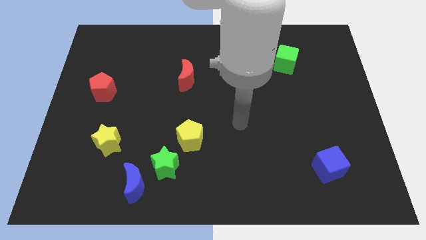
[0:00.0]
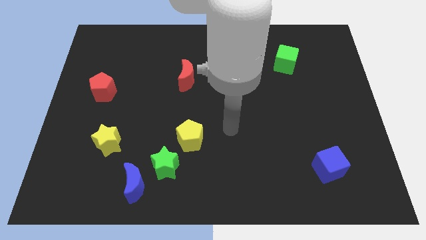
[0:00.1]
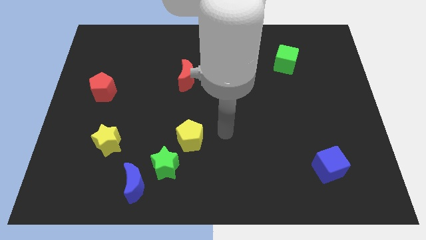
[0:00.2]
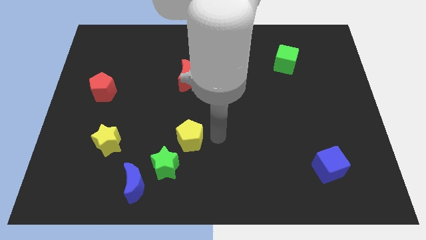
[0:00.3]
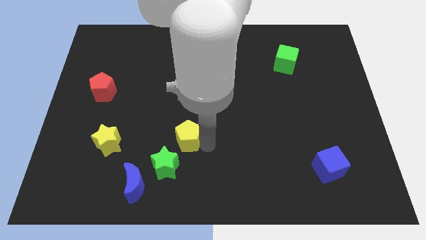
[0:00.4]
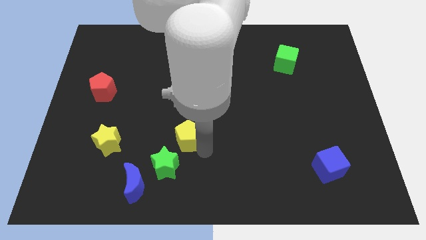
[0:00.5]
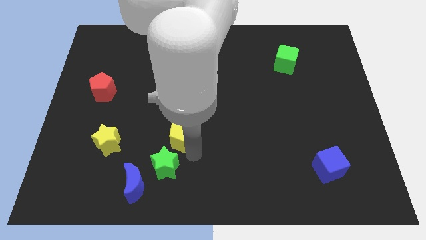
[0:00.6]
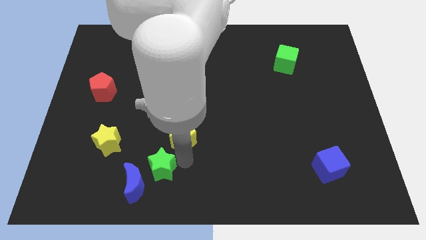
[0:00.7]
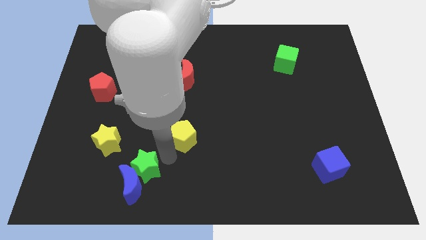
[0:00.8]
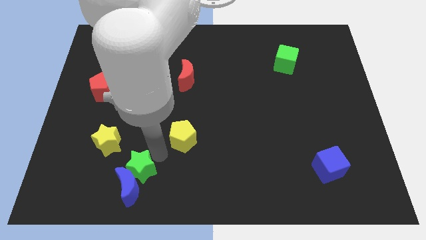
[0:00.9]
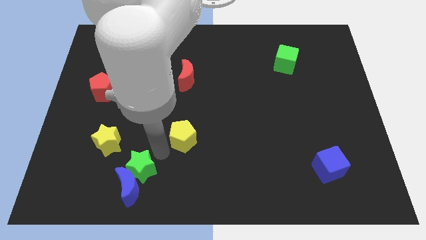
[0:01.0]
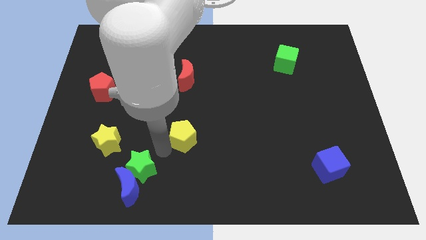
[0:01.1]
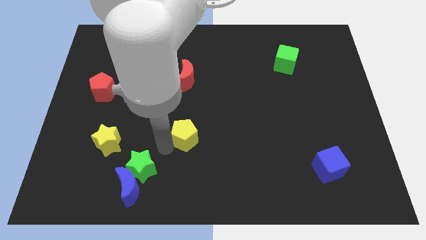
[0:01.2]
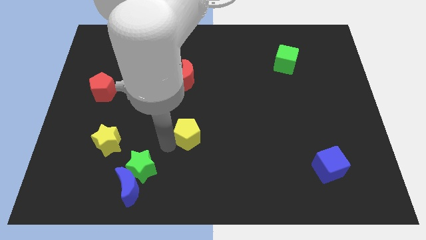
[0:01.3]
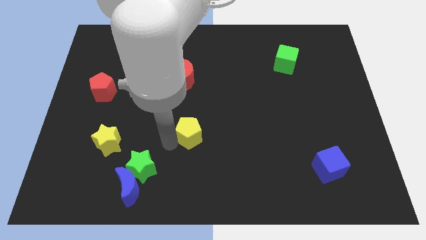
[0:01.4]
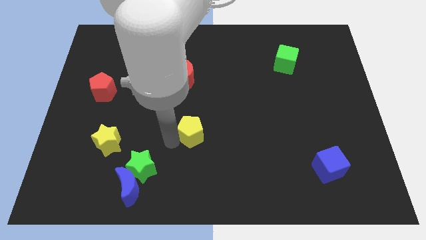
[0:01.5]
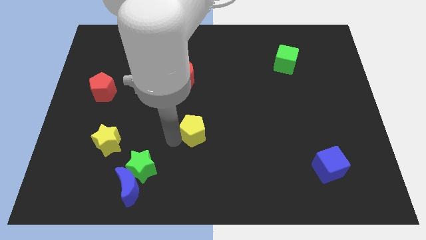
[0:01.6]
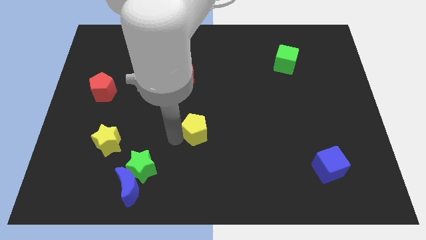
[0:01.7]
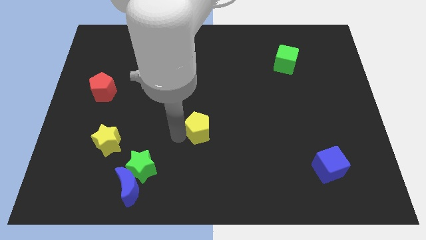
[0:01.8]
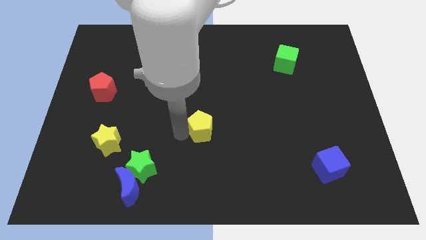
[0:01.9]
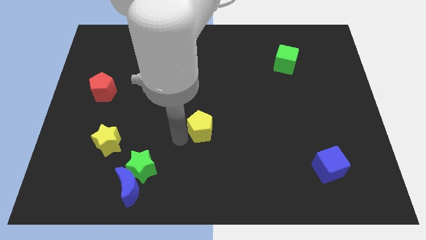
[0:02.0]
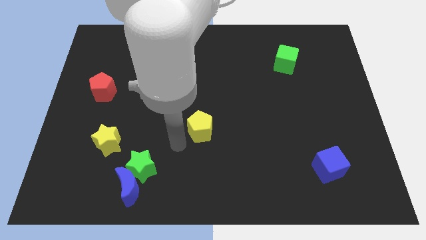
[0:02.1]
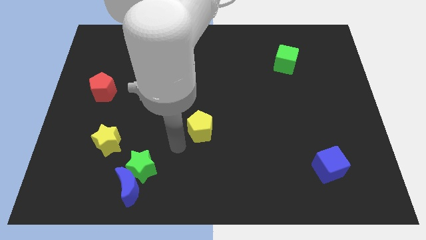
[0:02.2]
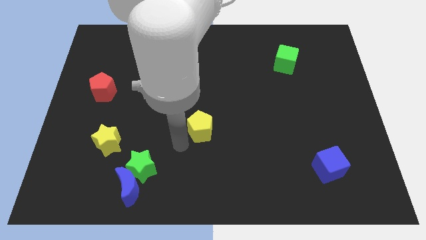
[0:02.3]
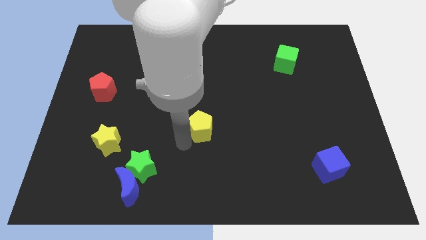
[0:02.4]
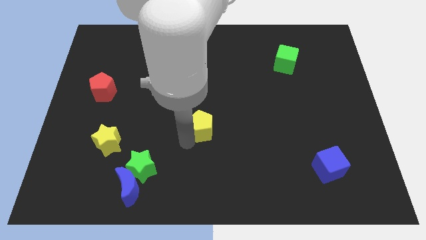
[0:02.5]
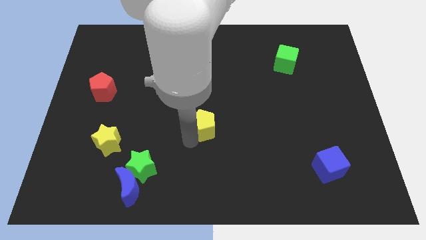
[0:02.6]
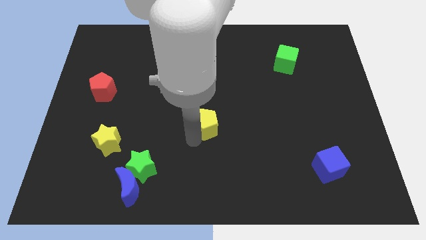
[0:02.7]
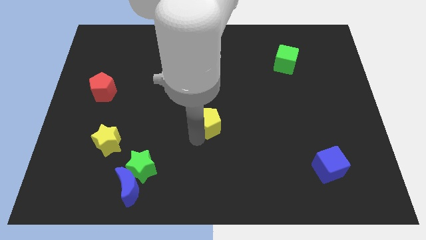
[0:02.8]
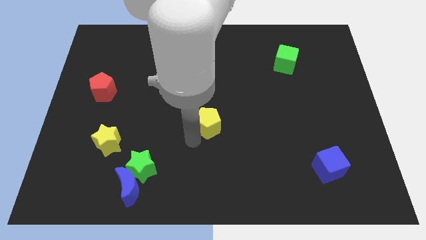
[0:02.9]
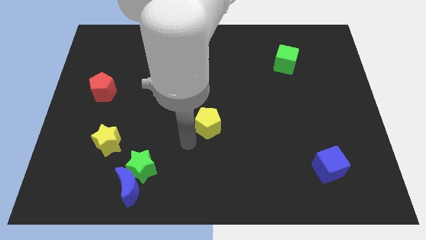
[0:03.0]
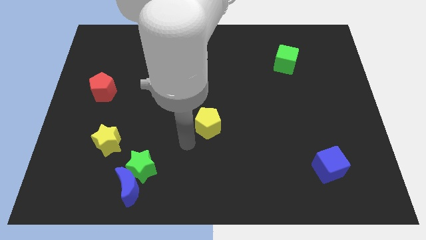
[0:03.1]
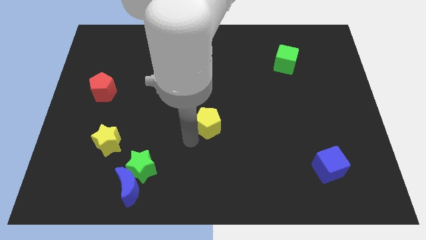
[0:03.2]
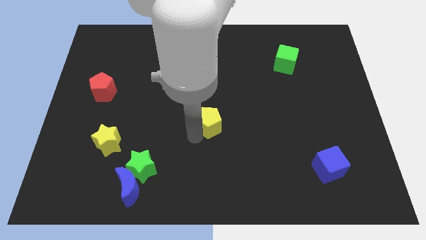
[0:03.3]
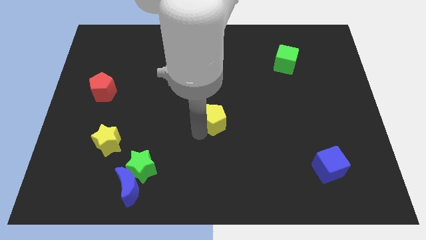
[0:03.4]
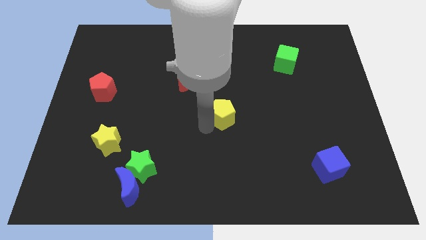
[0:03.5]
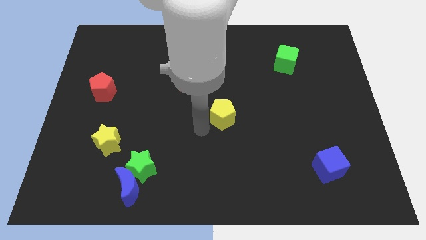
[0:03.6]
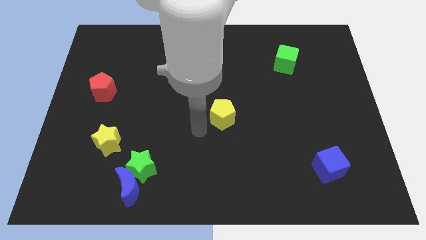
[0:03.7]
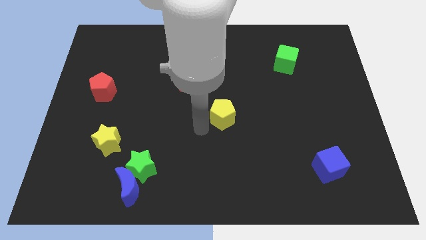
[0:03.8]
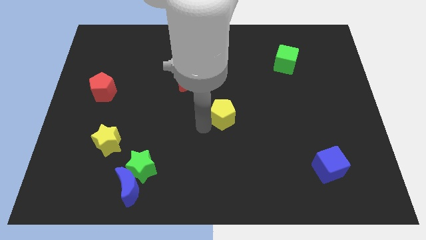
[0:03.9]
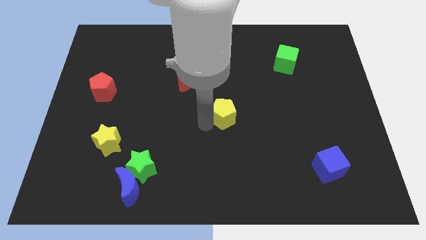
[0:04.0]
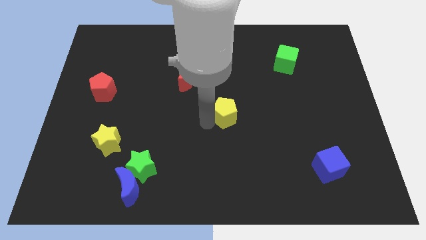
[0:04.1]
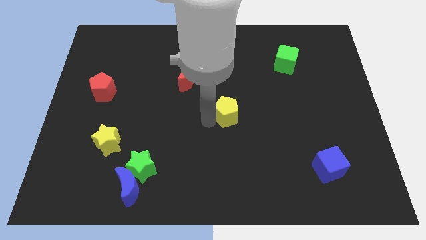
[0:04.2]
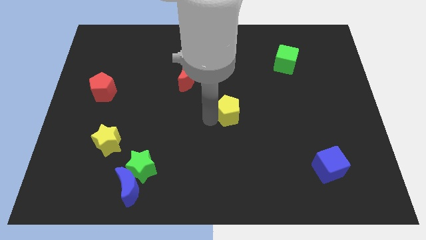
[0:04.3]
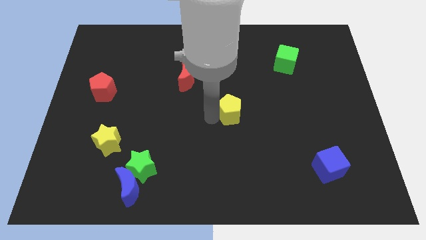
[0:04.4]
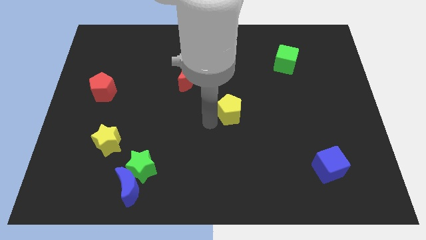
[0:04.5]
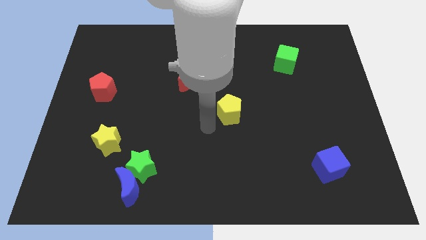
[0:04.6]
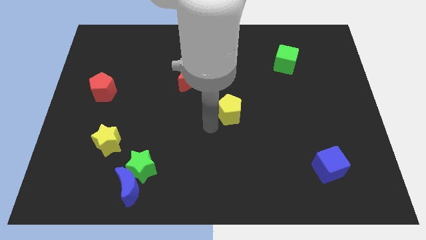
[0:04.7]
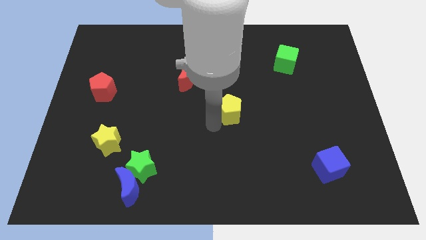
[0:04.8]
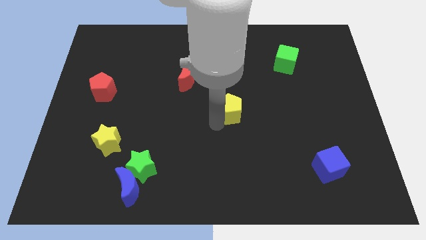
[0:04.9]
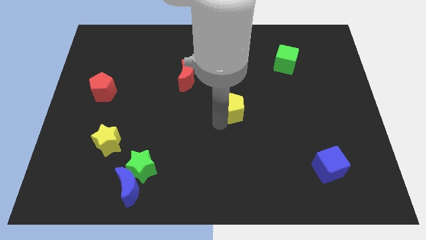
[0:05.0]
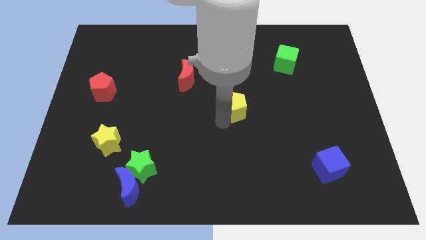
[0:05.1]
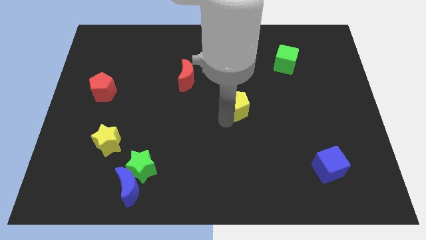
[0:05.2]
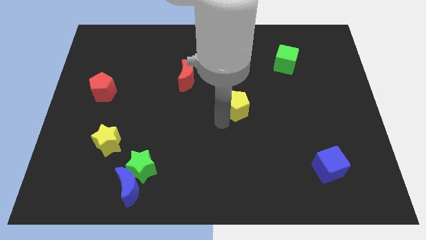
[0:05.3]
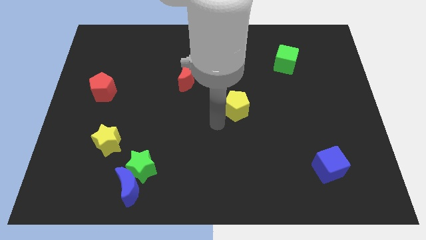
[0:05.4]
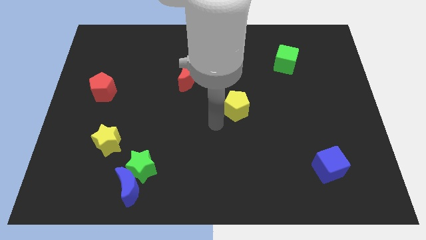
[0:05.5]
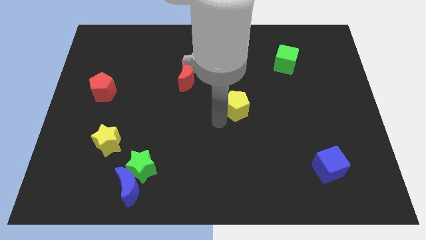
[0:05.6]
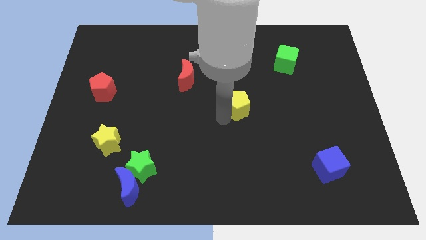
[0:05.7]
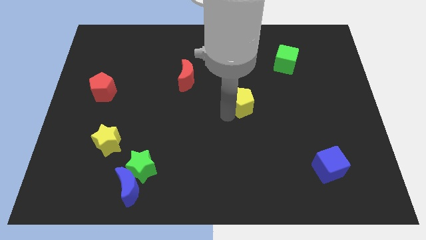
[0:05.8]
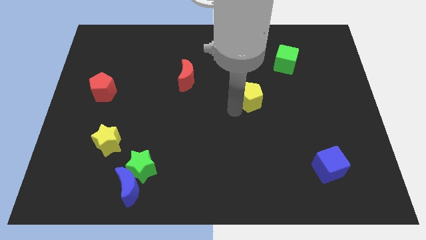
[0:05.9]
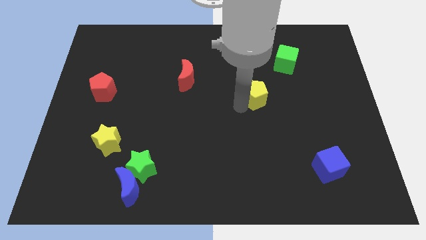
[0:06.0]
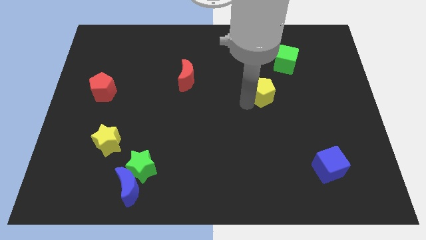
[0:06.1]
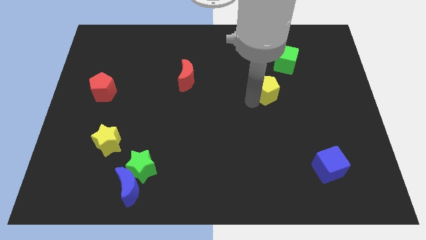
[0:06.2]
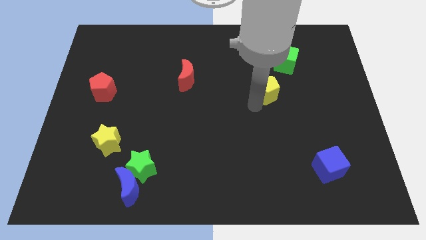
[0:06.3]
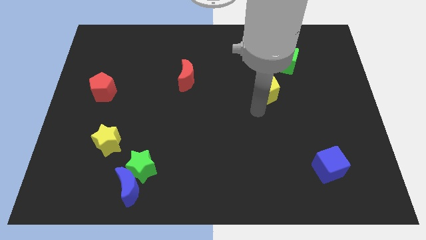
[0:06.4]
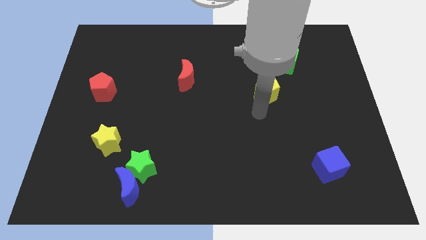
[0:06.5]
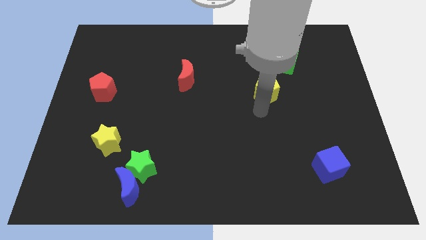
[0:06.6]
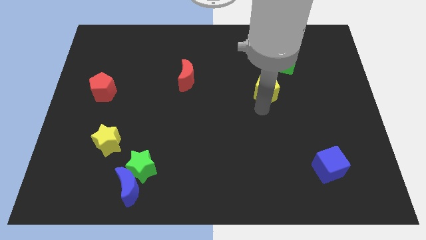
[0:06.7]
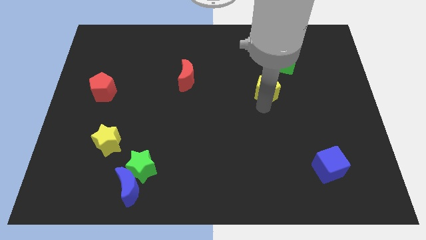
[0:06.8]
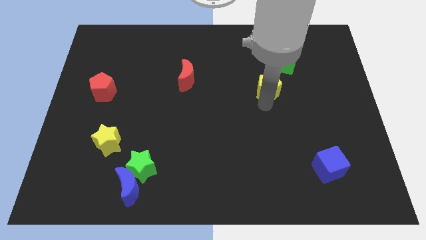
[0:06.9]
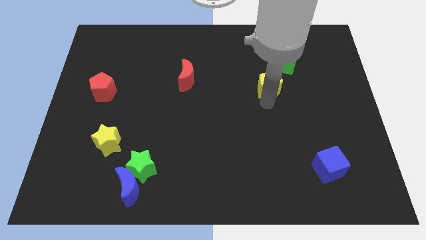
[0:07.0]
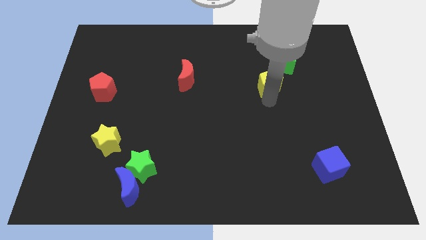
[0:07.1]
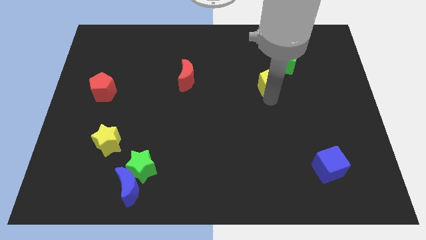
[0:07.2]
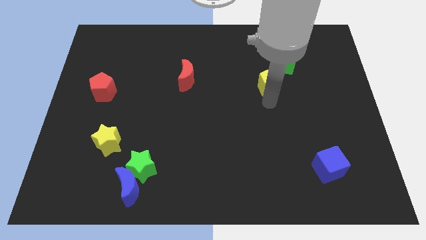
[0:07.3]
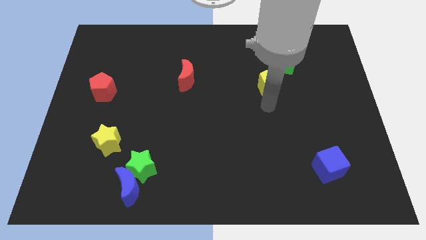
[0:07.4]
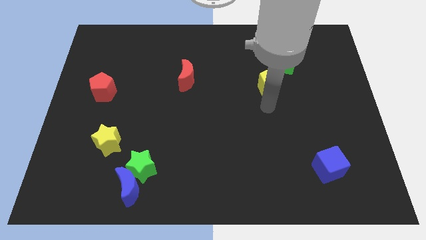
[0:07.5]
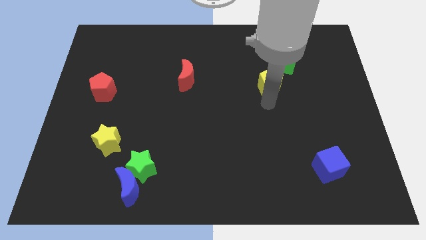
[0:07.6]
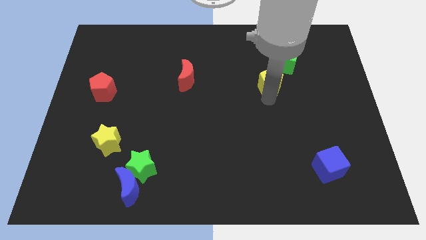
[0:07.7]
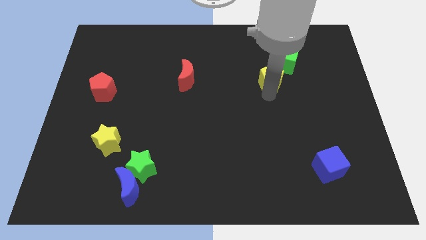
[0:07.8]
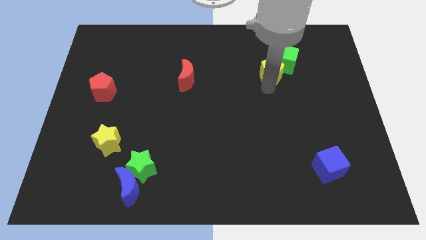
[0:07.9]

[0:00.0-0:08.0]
push the yellow pentagon next to the green cube
